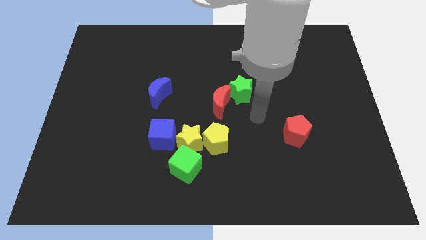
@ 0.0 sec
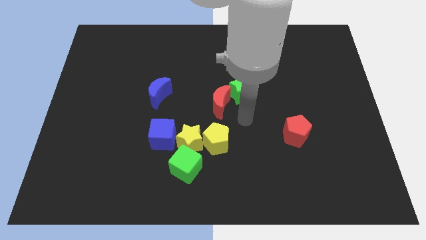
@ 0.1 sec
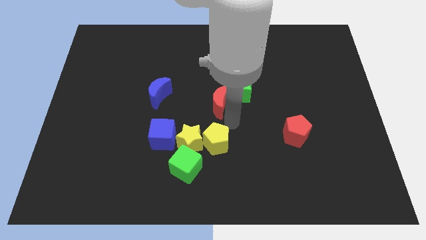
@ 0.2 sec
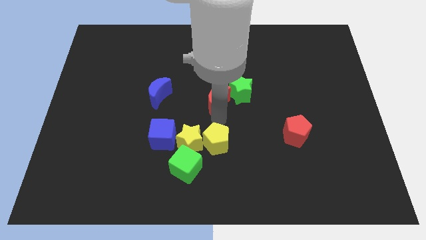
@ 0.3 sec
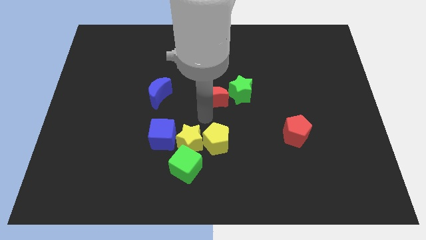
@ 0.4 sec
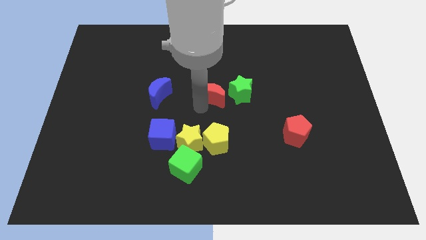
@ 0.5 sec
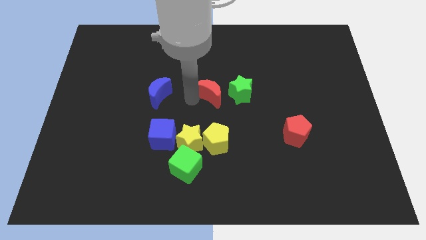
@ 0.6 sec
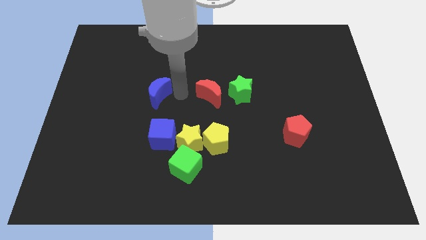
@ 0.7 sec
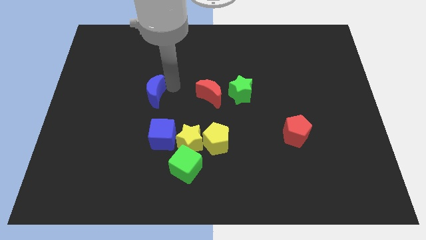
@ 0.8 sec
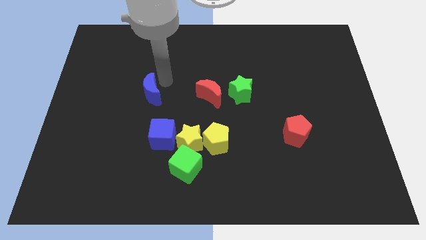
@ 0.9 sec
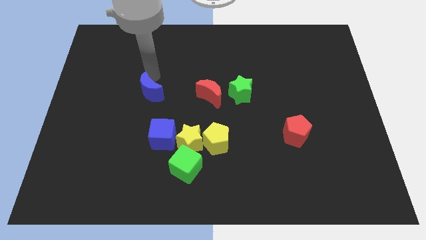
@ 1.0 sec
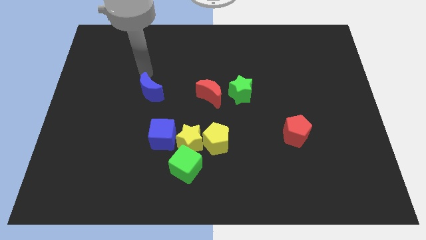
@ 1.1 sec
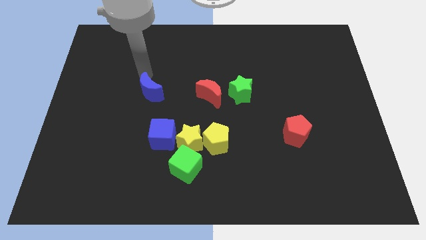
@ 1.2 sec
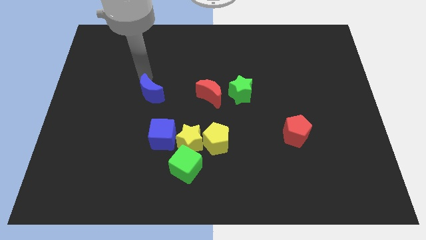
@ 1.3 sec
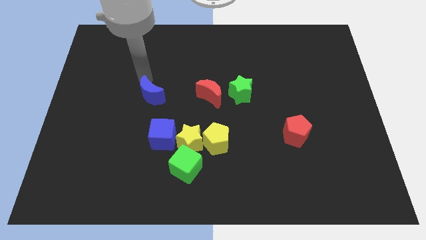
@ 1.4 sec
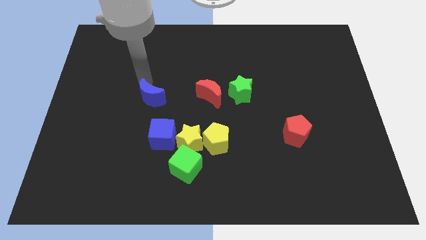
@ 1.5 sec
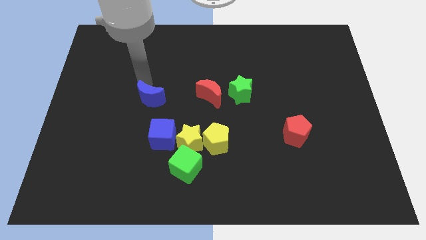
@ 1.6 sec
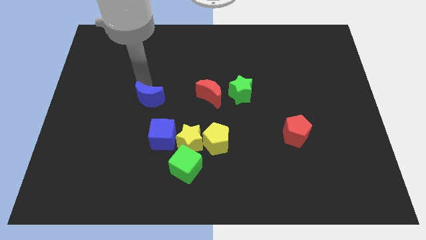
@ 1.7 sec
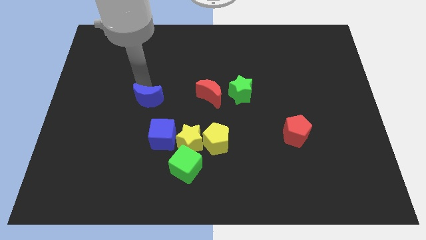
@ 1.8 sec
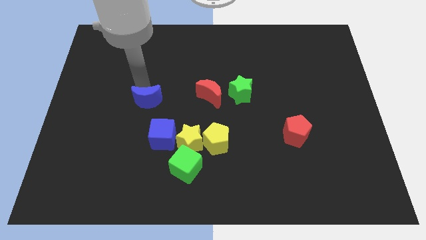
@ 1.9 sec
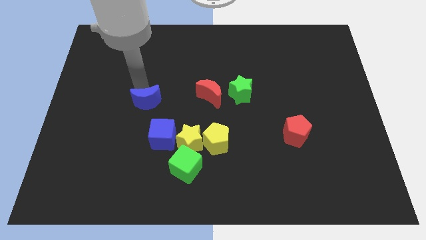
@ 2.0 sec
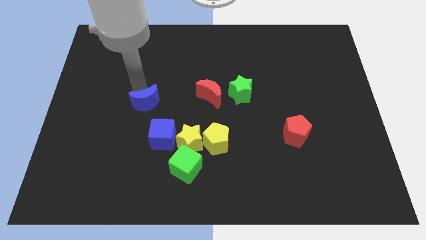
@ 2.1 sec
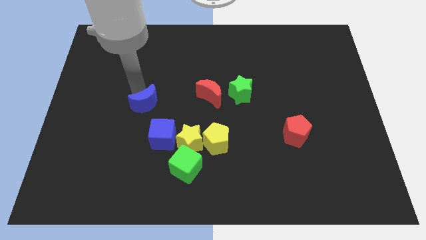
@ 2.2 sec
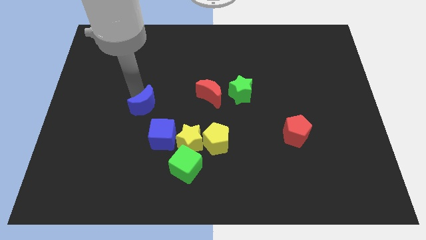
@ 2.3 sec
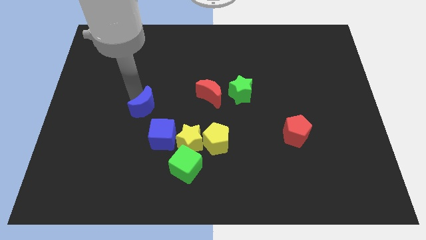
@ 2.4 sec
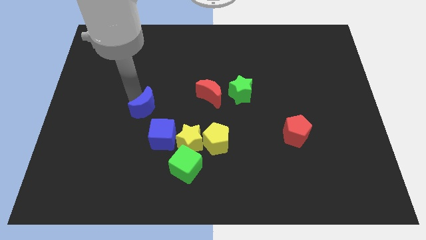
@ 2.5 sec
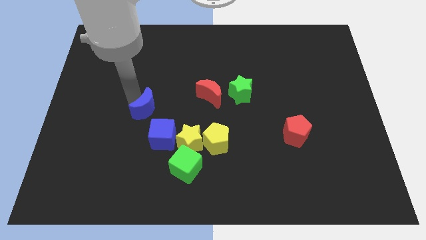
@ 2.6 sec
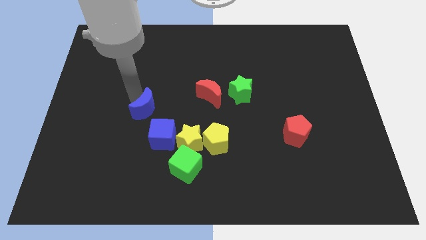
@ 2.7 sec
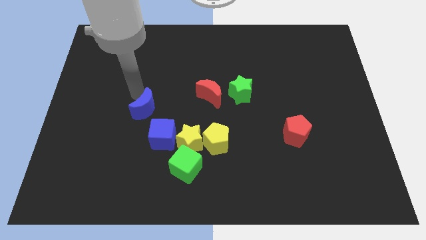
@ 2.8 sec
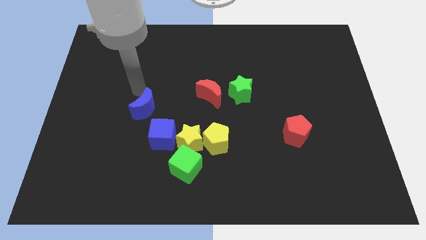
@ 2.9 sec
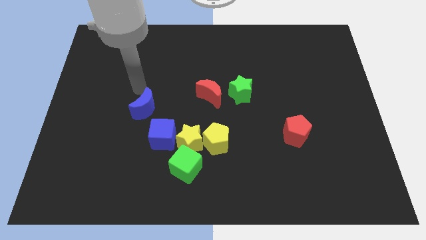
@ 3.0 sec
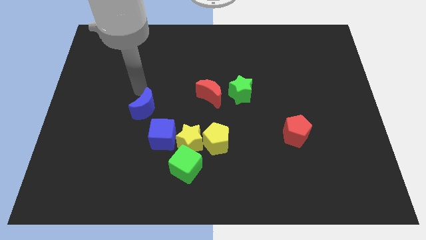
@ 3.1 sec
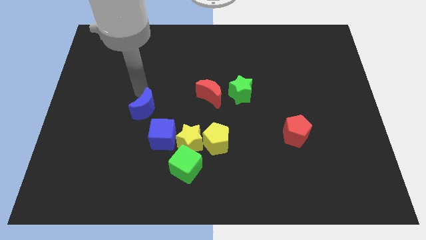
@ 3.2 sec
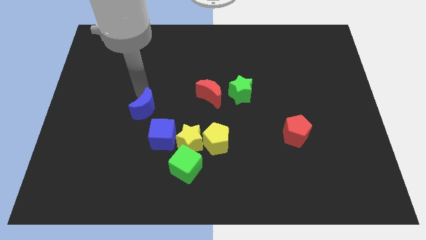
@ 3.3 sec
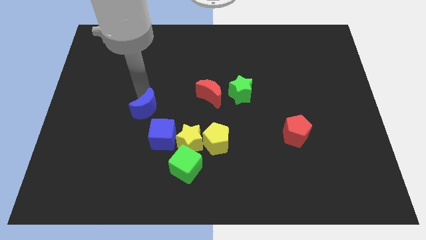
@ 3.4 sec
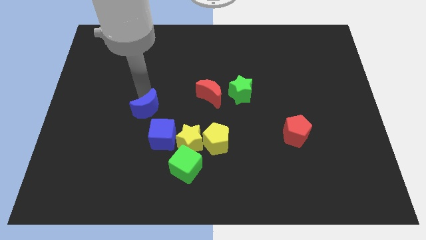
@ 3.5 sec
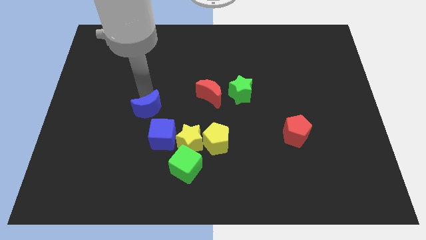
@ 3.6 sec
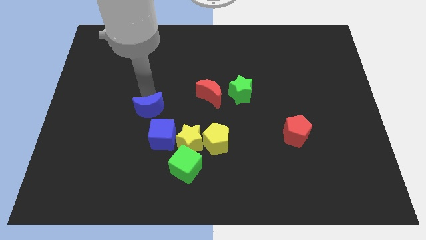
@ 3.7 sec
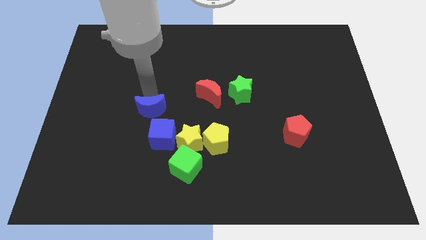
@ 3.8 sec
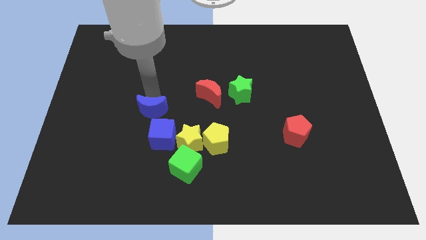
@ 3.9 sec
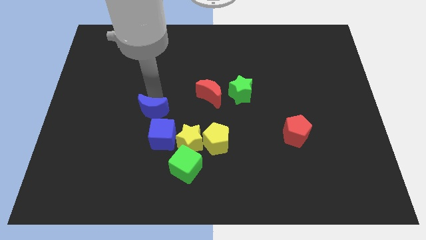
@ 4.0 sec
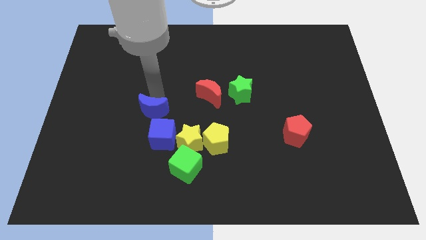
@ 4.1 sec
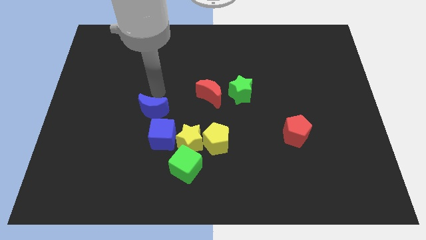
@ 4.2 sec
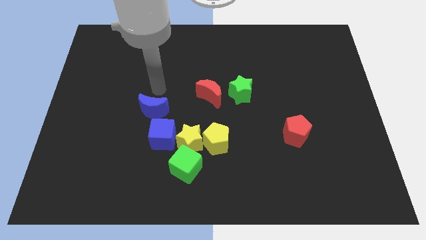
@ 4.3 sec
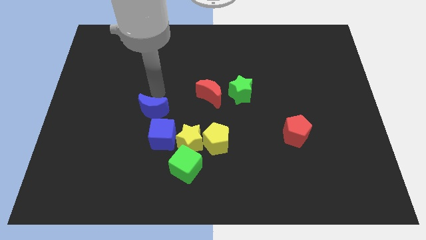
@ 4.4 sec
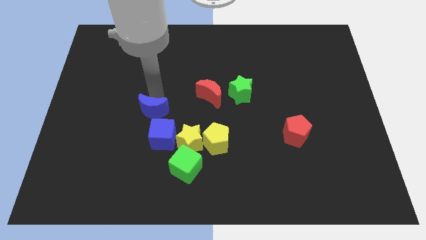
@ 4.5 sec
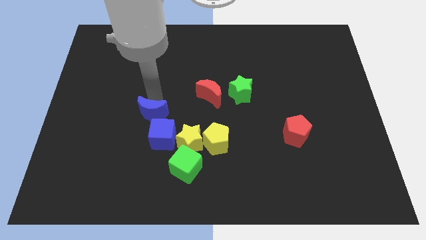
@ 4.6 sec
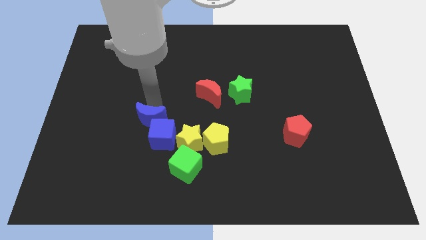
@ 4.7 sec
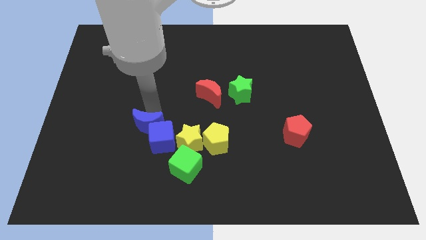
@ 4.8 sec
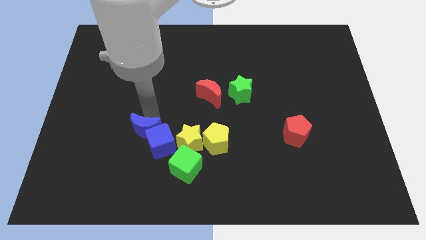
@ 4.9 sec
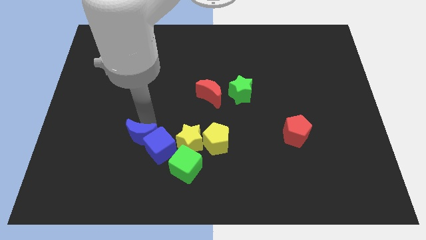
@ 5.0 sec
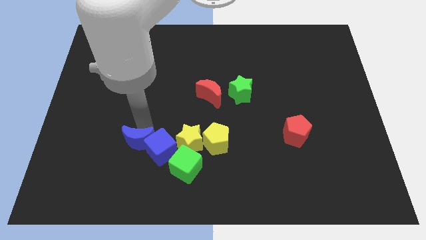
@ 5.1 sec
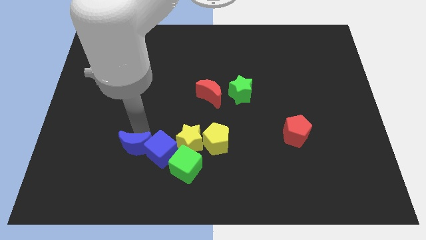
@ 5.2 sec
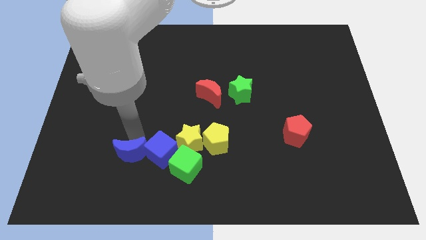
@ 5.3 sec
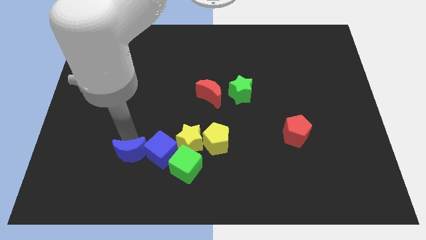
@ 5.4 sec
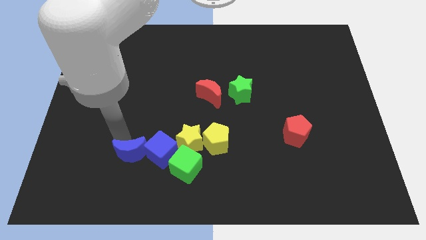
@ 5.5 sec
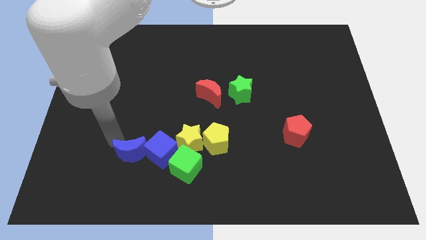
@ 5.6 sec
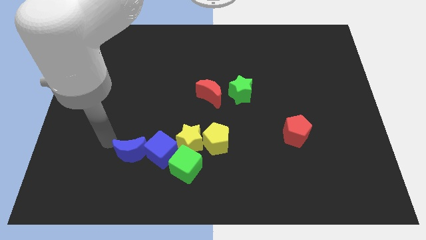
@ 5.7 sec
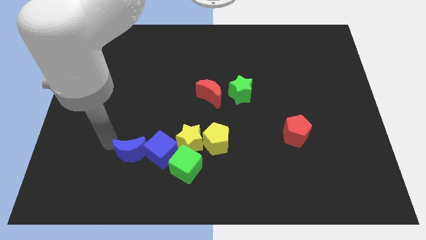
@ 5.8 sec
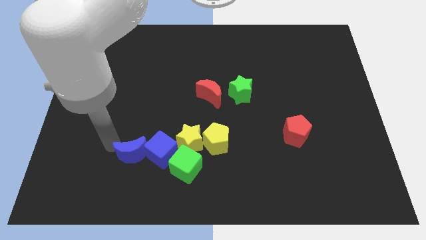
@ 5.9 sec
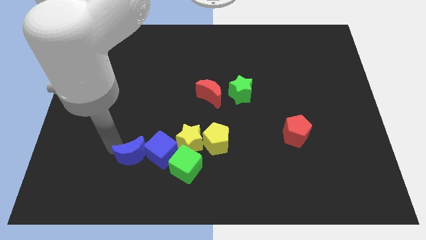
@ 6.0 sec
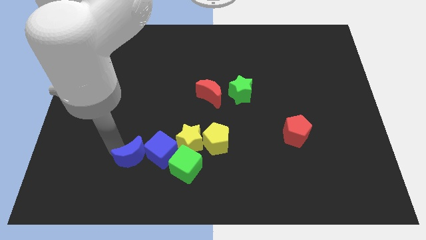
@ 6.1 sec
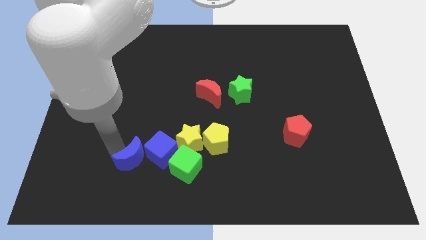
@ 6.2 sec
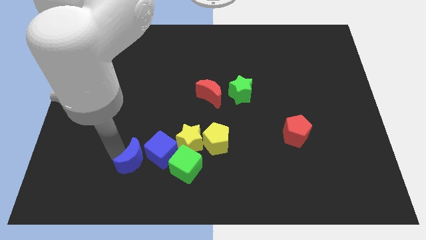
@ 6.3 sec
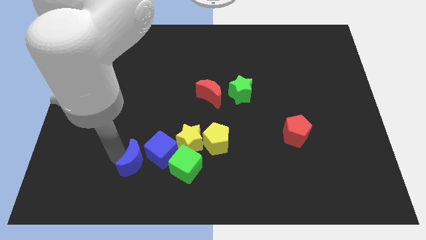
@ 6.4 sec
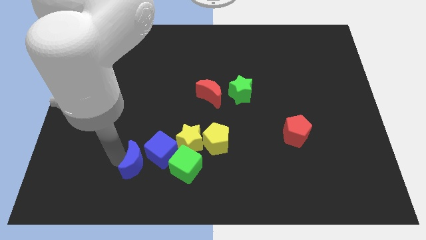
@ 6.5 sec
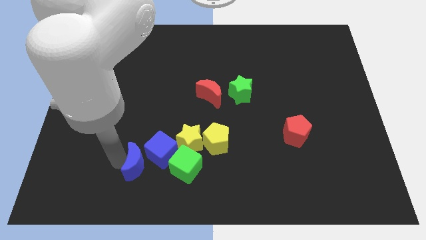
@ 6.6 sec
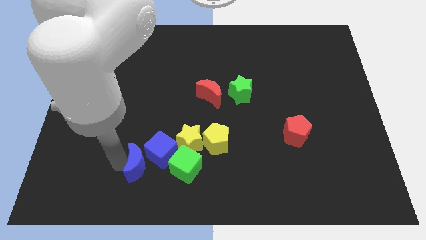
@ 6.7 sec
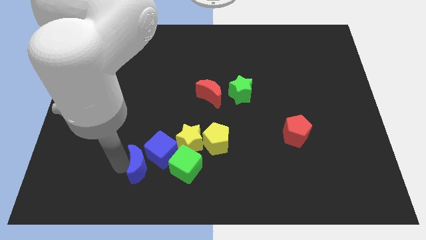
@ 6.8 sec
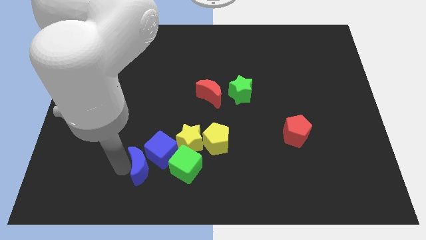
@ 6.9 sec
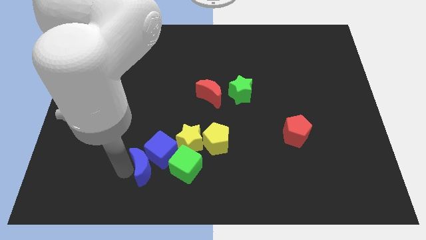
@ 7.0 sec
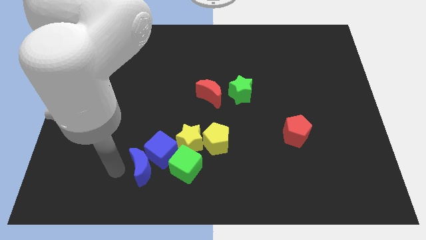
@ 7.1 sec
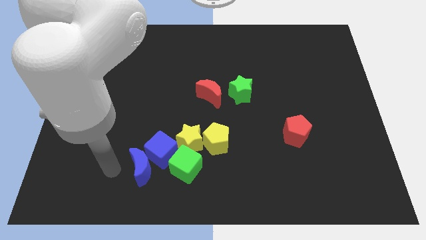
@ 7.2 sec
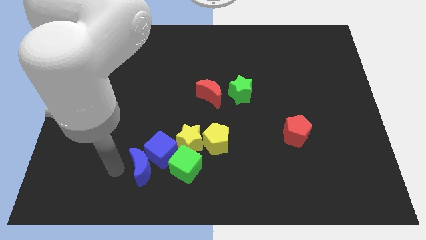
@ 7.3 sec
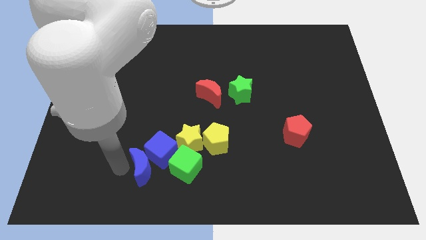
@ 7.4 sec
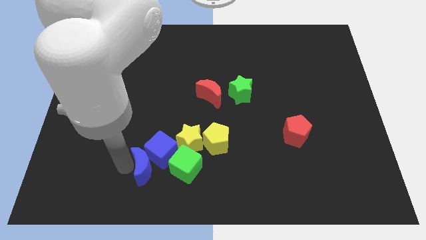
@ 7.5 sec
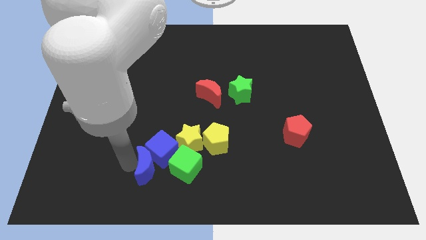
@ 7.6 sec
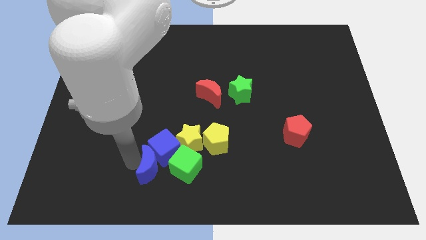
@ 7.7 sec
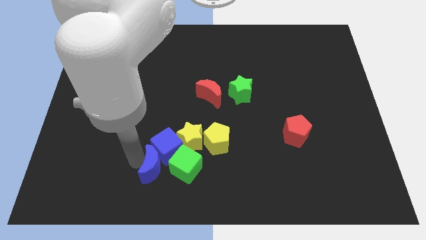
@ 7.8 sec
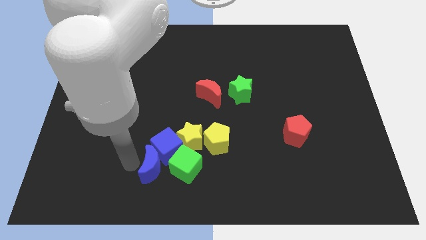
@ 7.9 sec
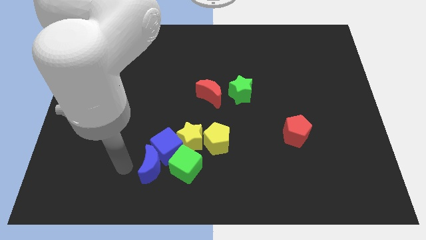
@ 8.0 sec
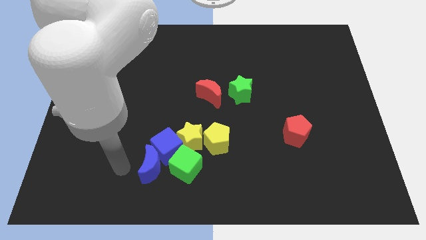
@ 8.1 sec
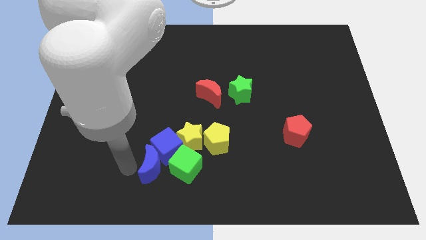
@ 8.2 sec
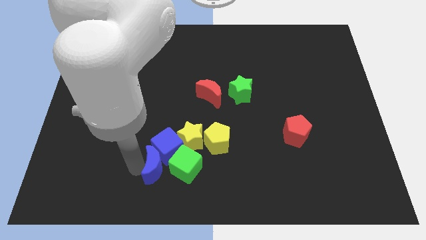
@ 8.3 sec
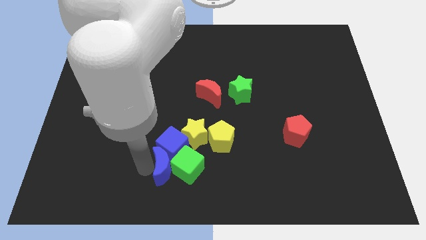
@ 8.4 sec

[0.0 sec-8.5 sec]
push the blue moon next to the green cube
